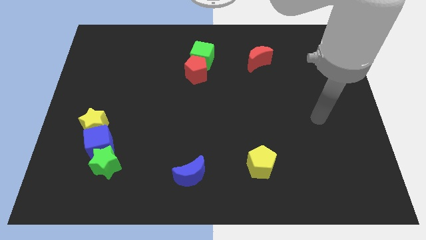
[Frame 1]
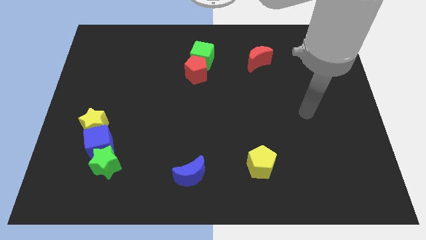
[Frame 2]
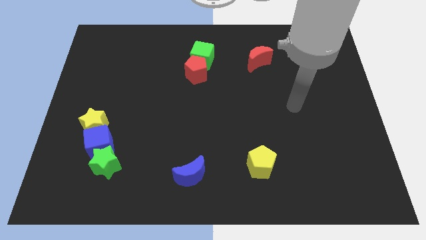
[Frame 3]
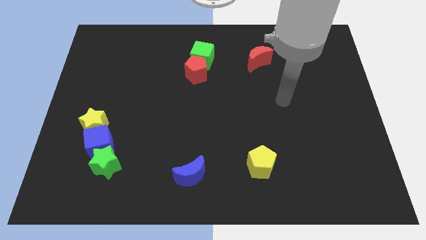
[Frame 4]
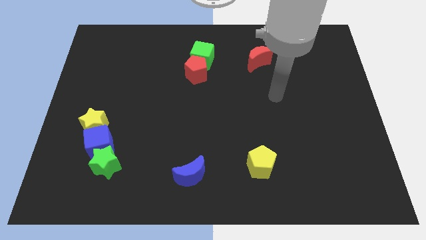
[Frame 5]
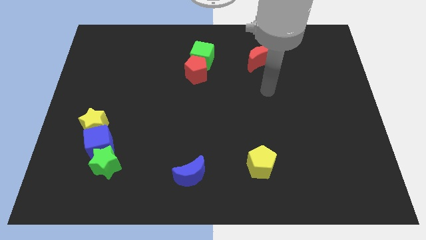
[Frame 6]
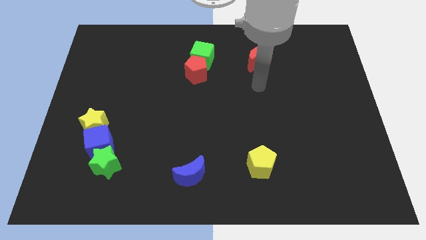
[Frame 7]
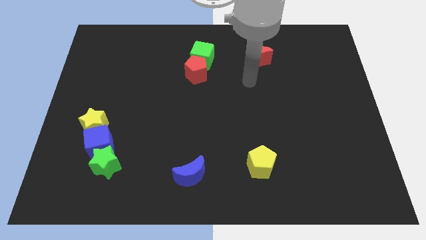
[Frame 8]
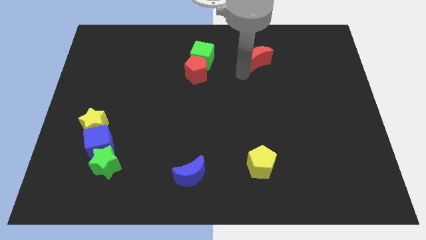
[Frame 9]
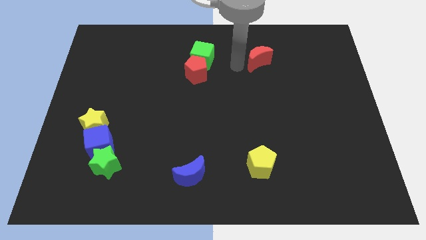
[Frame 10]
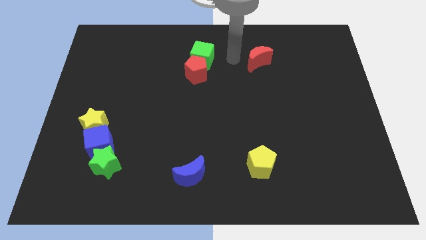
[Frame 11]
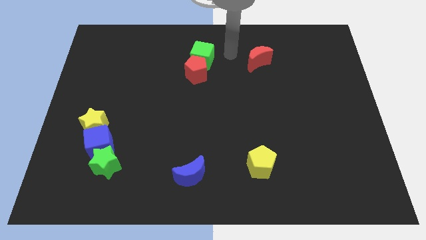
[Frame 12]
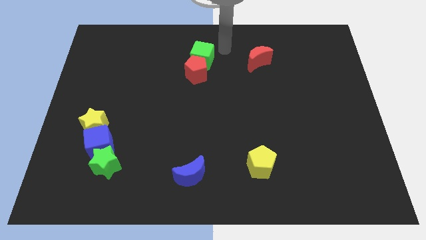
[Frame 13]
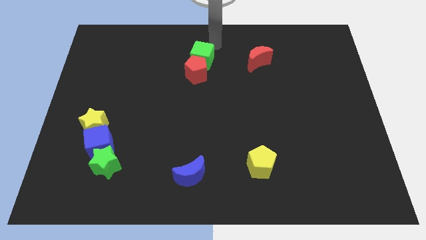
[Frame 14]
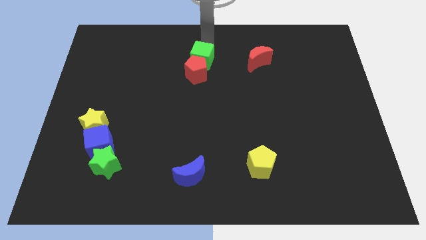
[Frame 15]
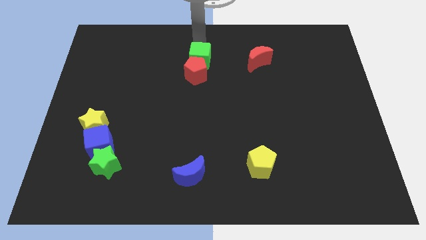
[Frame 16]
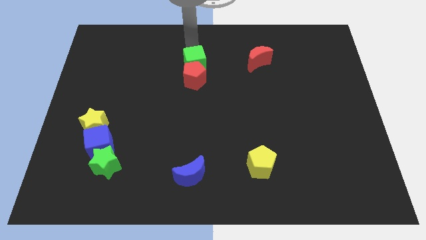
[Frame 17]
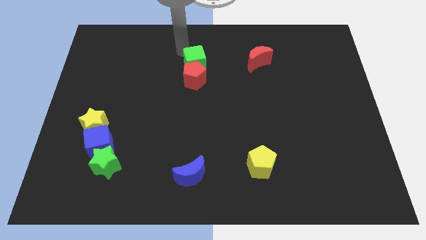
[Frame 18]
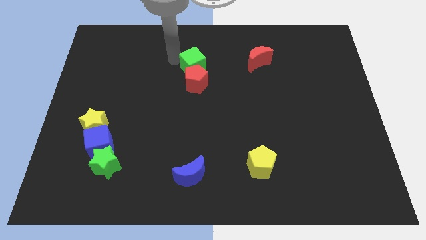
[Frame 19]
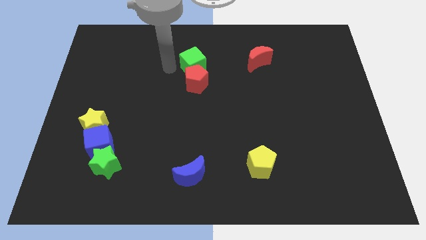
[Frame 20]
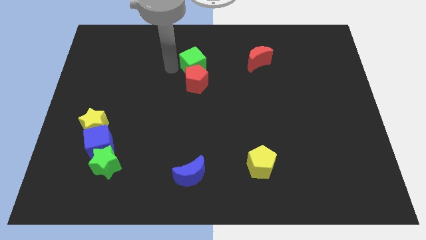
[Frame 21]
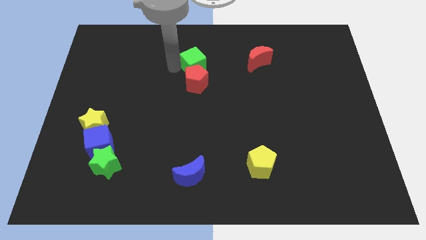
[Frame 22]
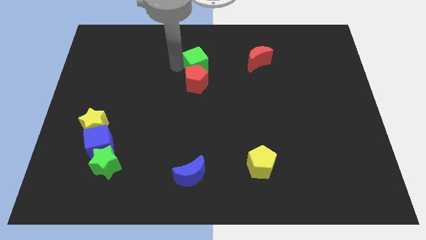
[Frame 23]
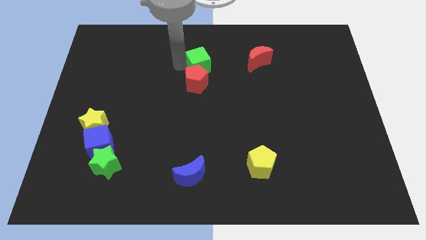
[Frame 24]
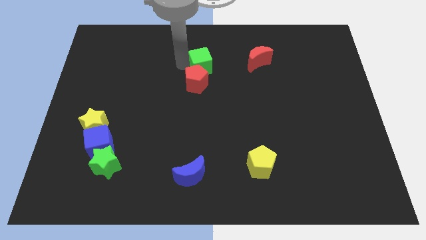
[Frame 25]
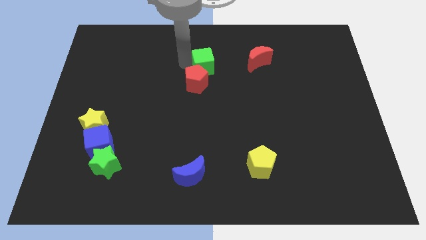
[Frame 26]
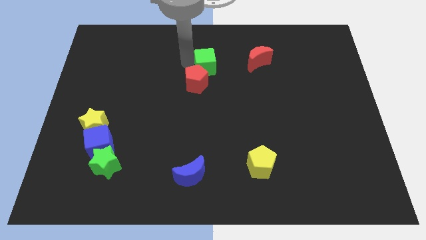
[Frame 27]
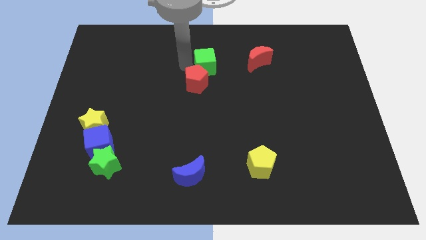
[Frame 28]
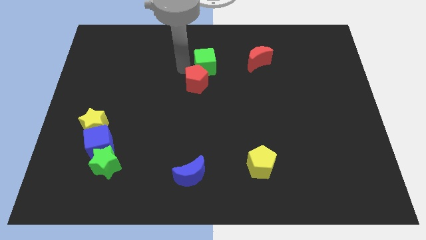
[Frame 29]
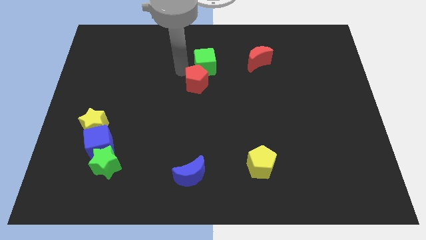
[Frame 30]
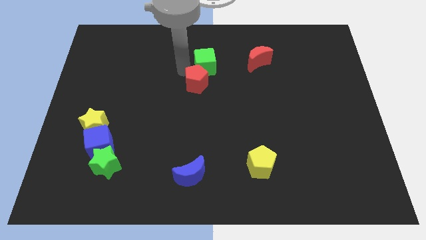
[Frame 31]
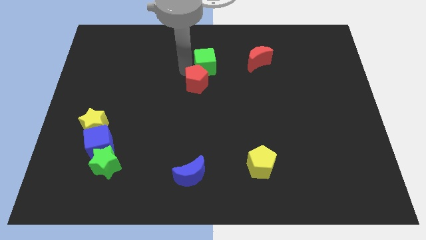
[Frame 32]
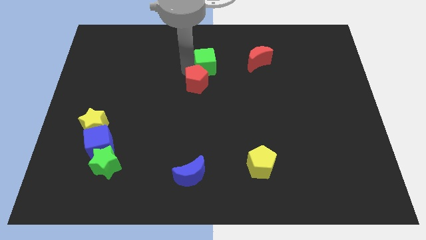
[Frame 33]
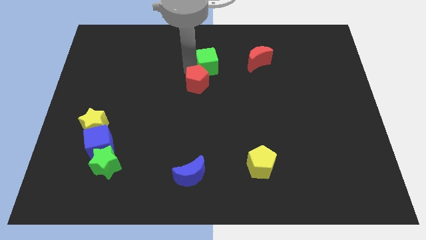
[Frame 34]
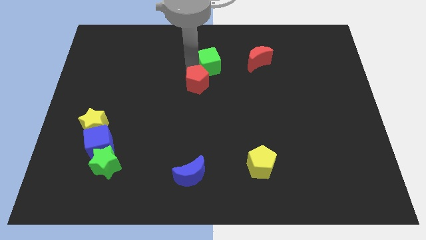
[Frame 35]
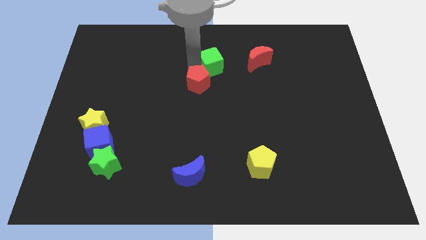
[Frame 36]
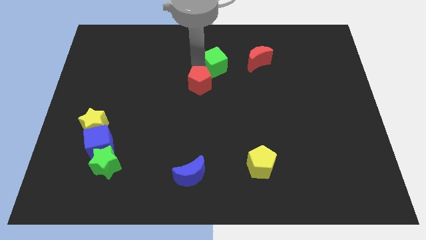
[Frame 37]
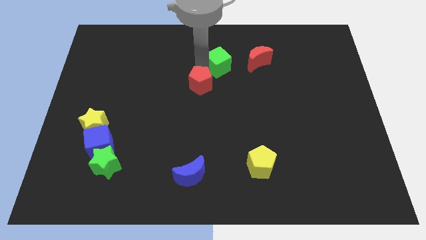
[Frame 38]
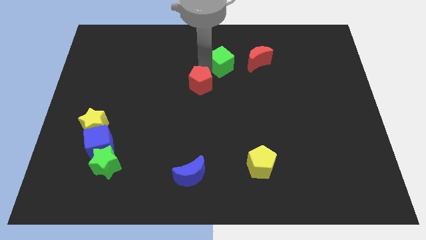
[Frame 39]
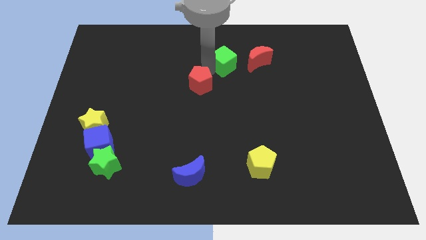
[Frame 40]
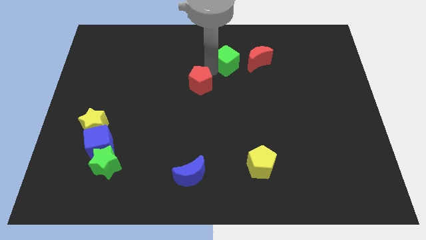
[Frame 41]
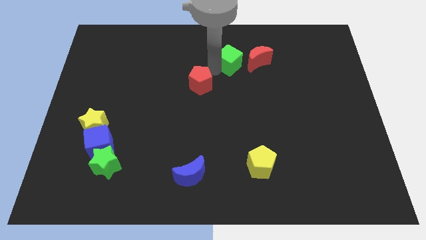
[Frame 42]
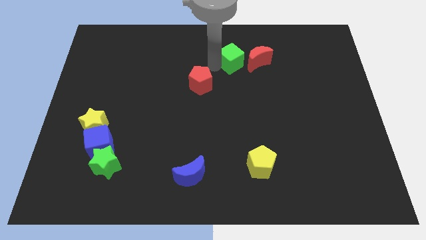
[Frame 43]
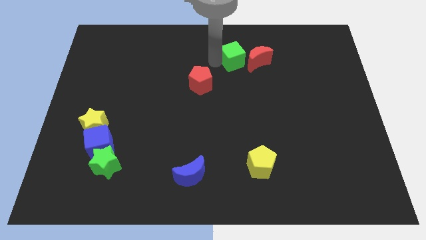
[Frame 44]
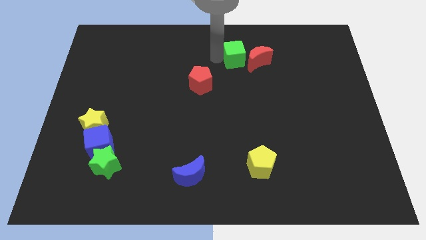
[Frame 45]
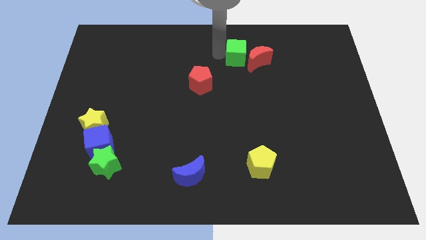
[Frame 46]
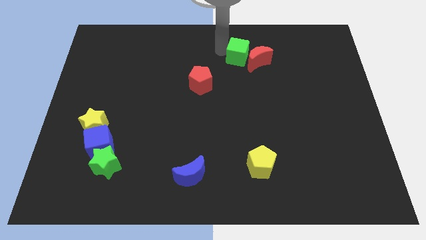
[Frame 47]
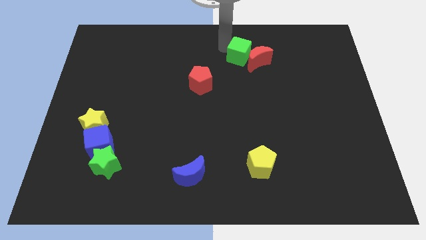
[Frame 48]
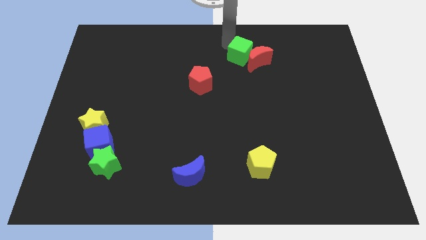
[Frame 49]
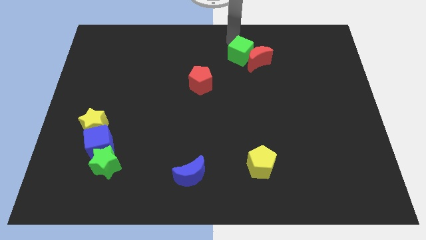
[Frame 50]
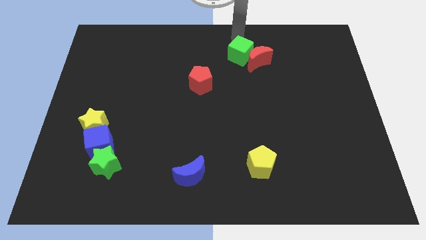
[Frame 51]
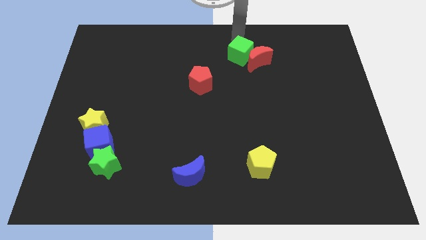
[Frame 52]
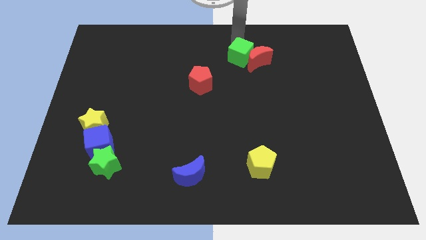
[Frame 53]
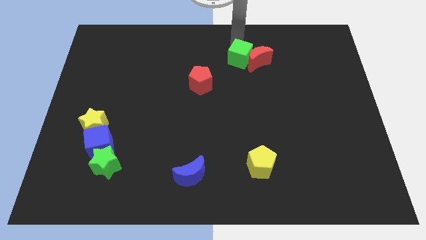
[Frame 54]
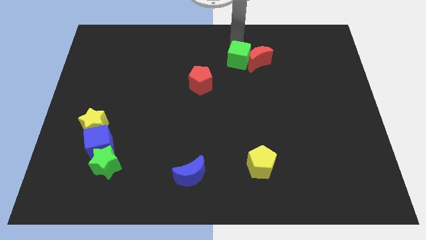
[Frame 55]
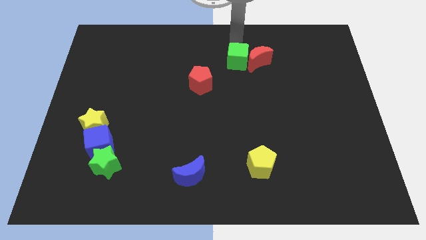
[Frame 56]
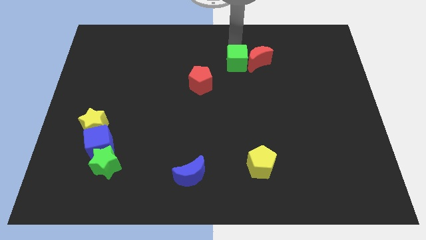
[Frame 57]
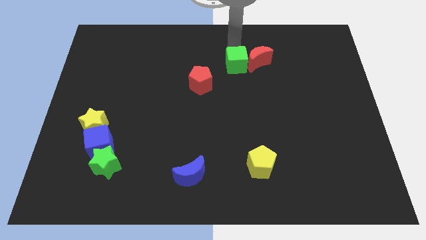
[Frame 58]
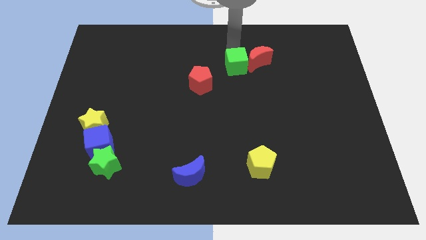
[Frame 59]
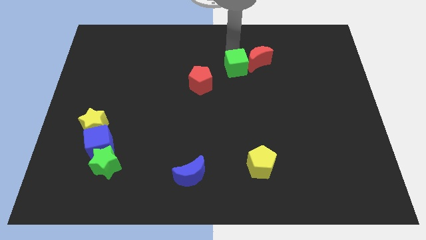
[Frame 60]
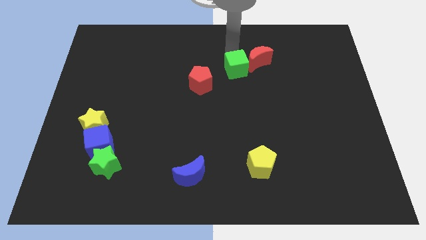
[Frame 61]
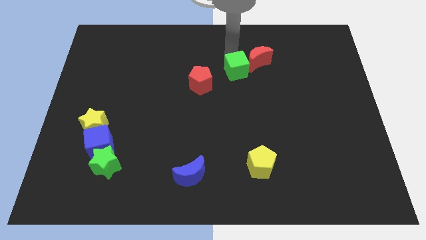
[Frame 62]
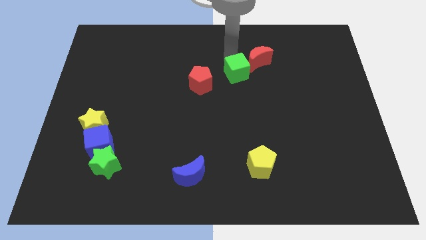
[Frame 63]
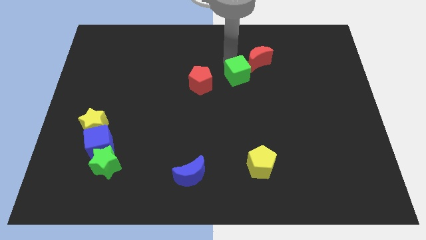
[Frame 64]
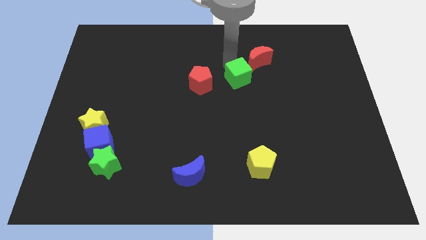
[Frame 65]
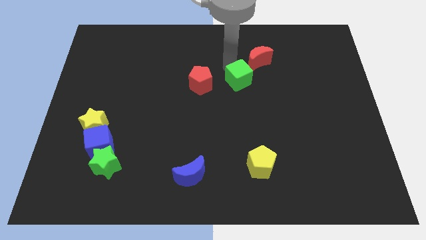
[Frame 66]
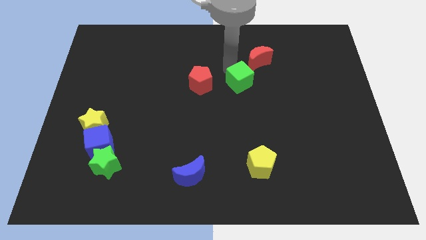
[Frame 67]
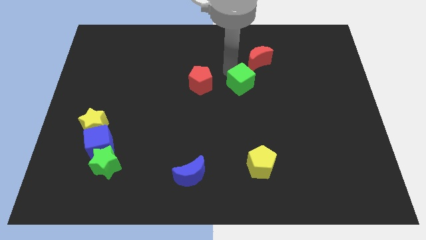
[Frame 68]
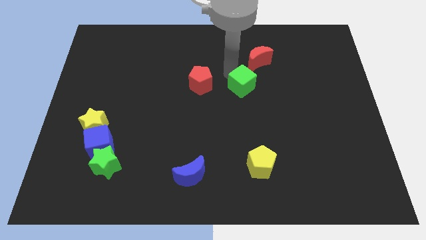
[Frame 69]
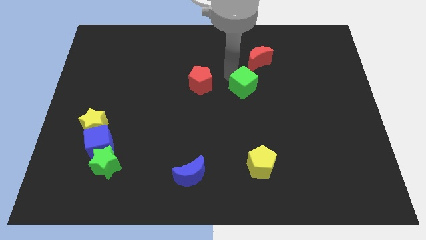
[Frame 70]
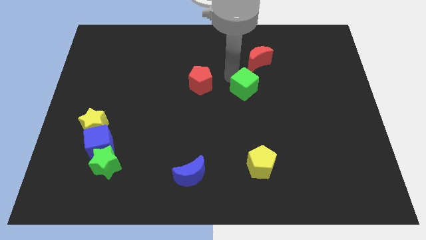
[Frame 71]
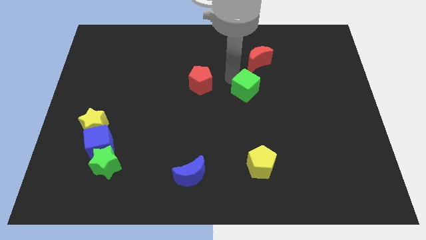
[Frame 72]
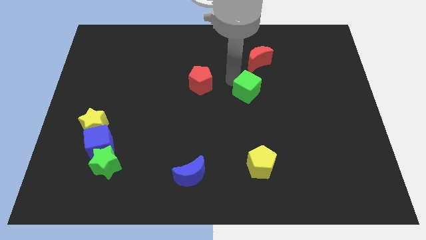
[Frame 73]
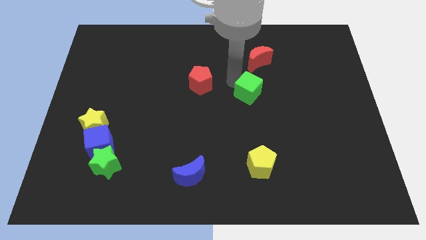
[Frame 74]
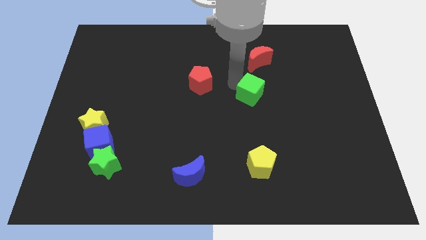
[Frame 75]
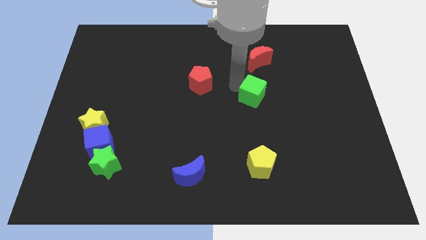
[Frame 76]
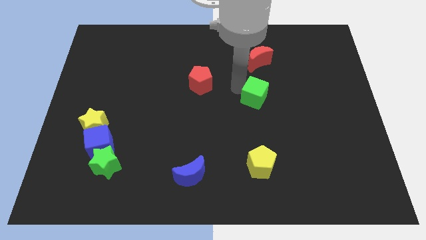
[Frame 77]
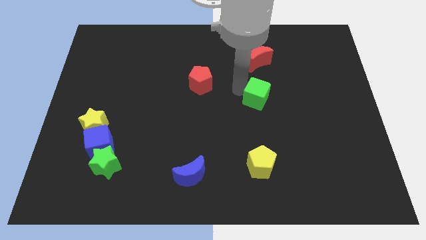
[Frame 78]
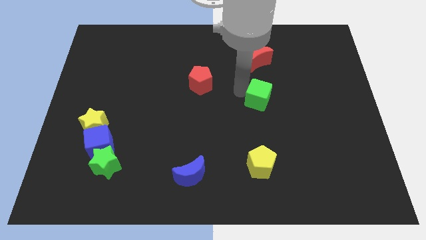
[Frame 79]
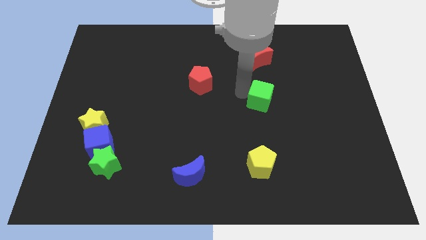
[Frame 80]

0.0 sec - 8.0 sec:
push the green cube down and right diagonally
